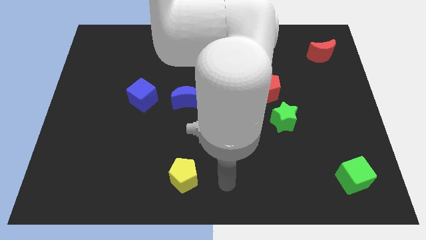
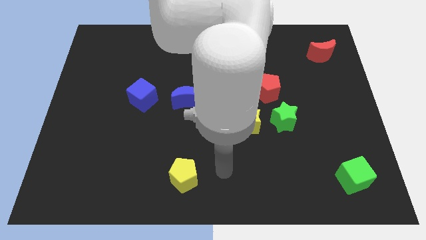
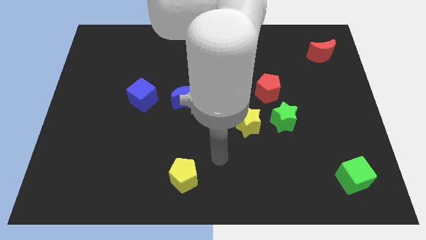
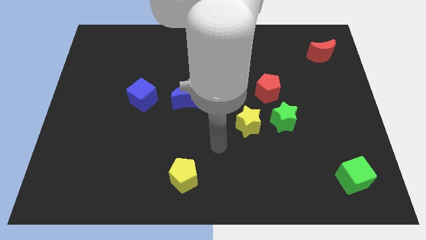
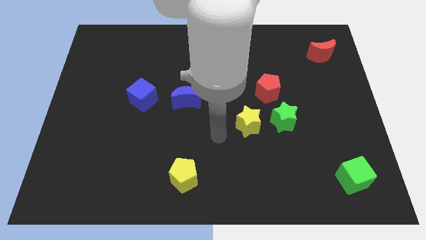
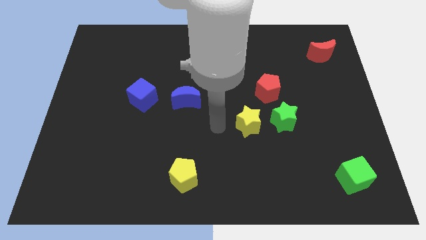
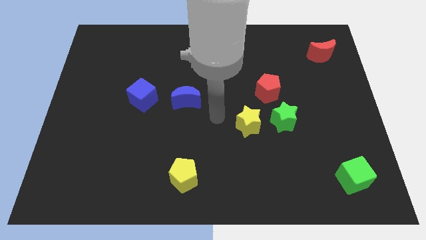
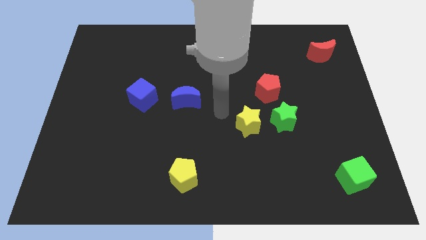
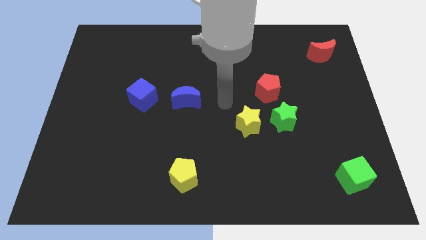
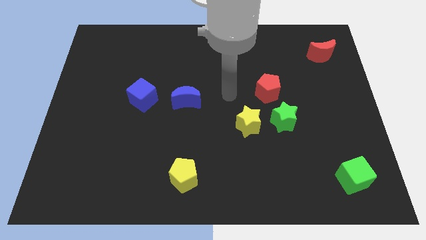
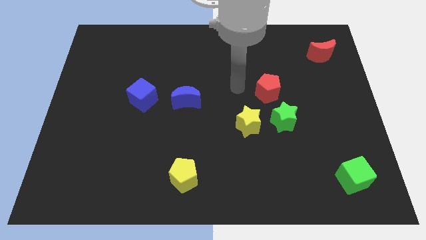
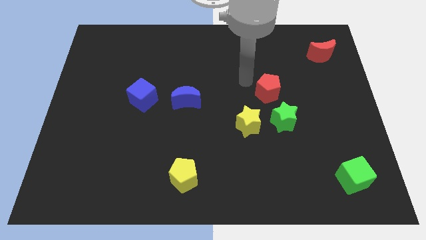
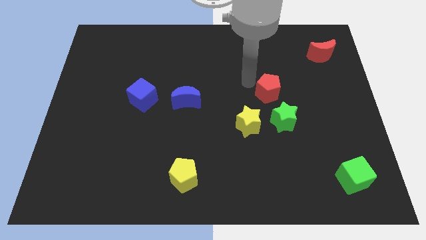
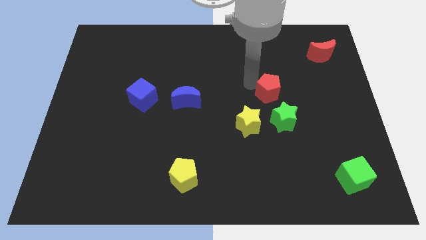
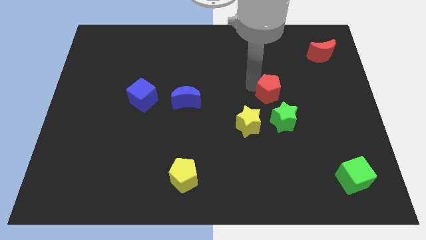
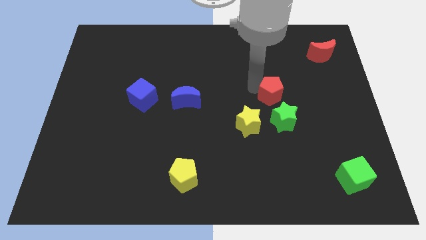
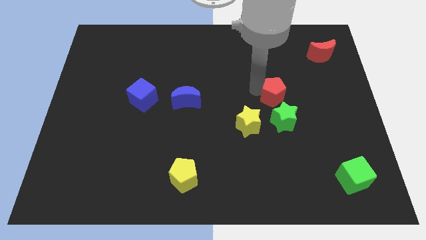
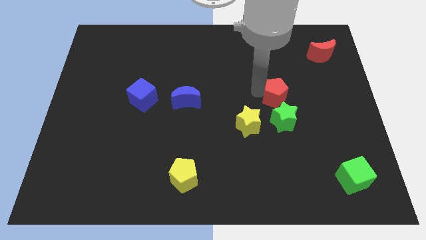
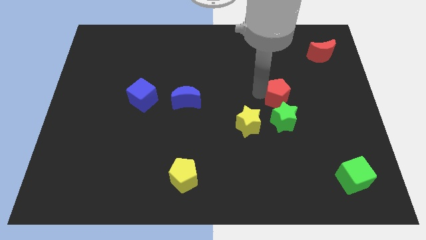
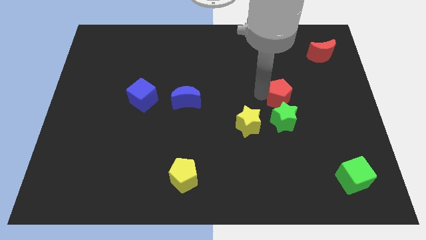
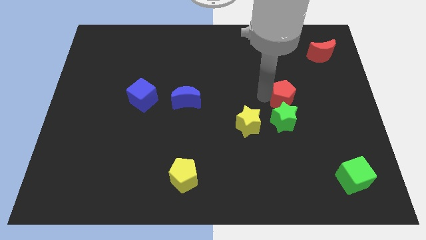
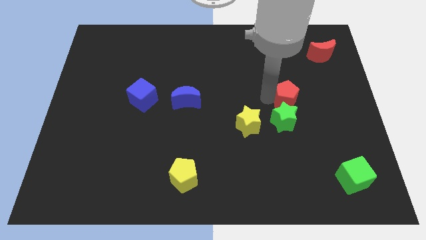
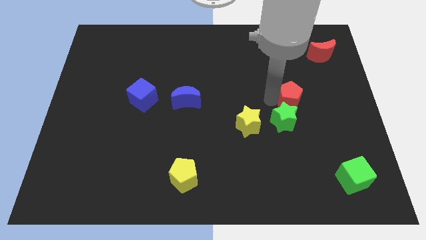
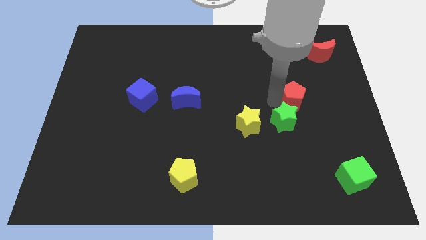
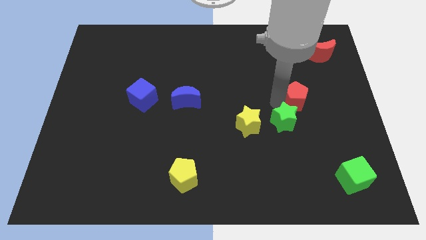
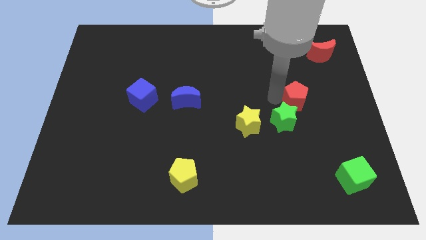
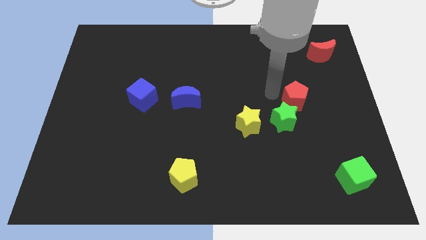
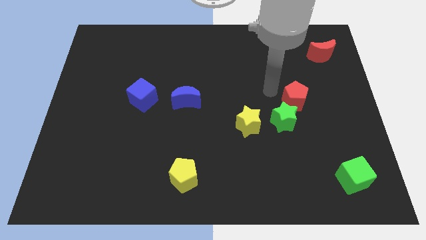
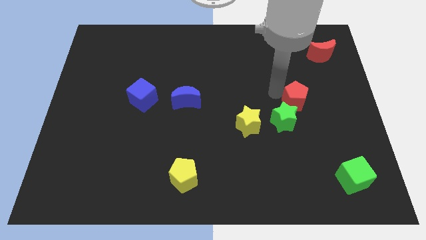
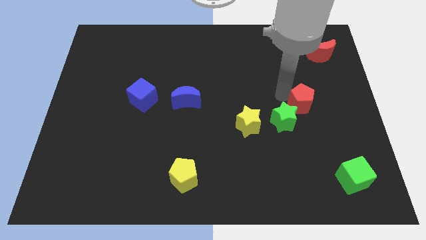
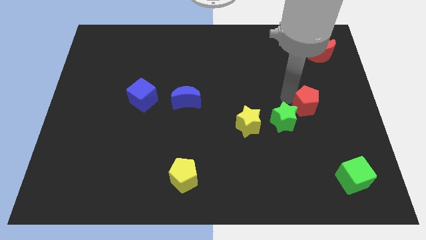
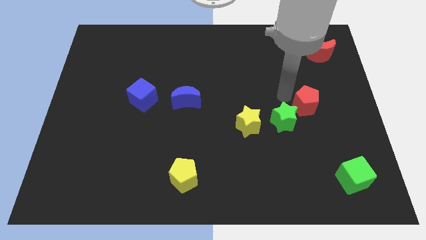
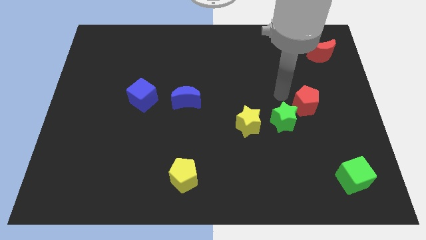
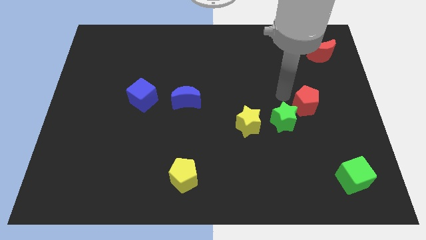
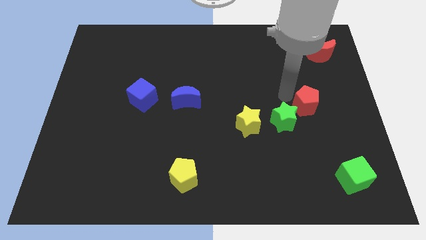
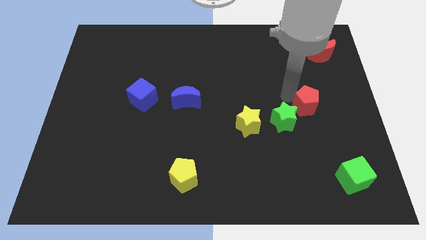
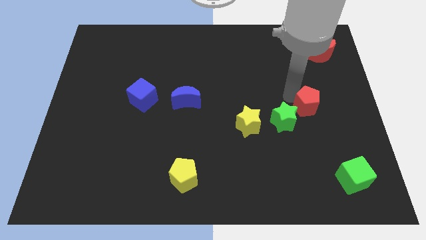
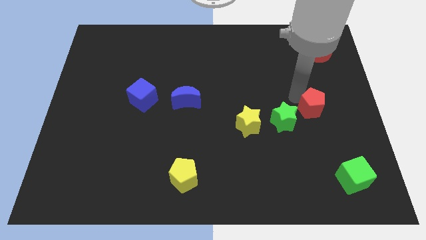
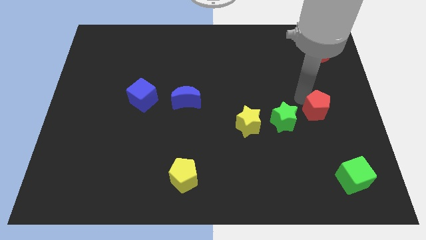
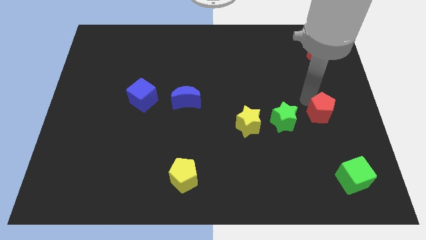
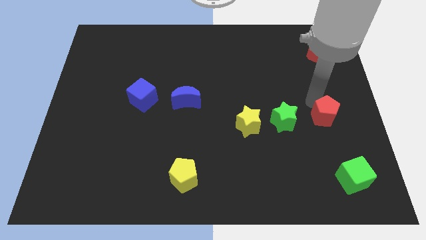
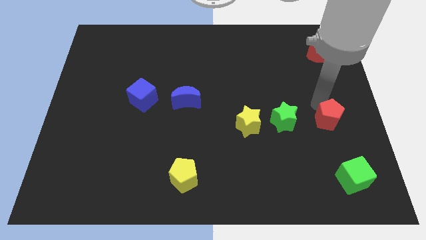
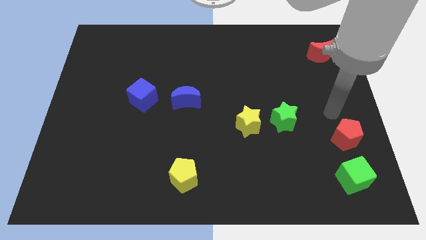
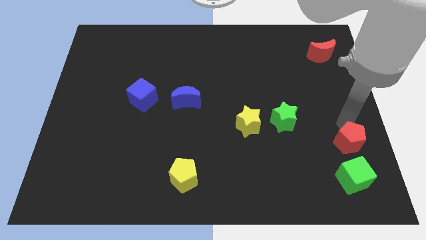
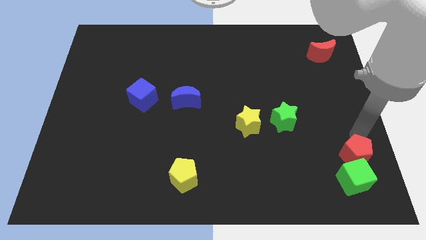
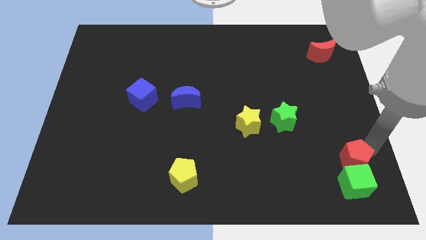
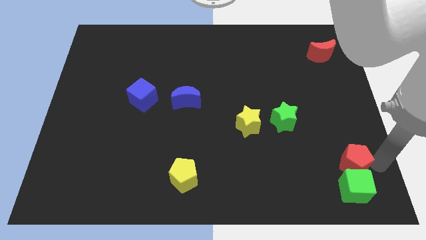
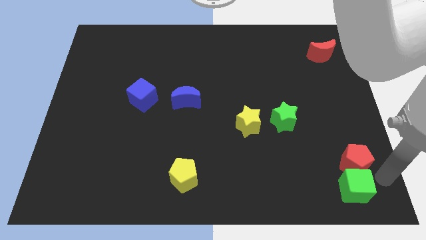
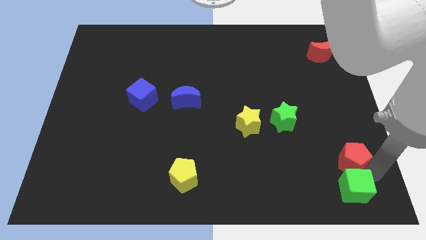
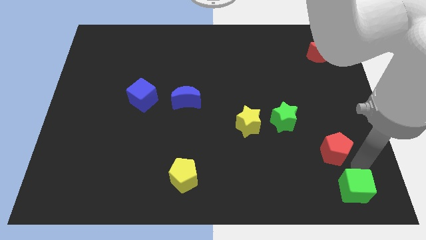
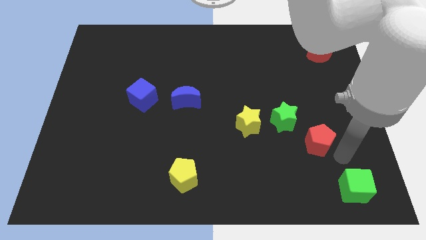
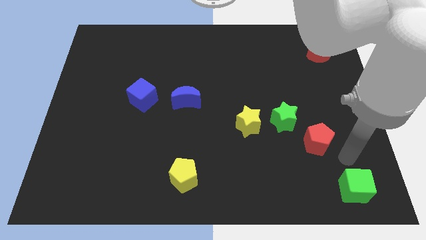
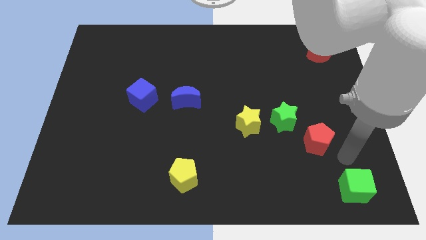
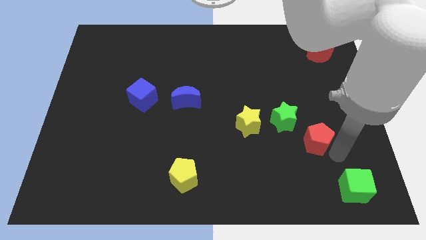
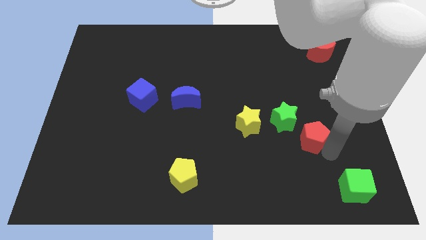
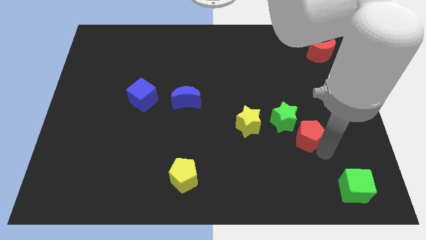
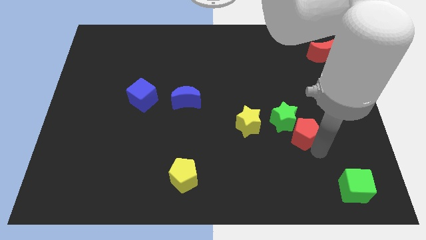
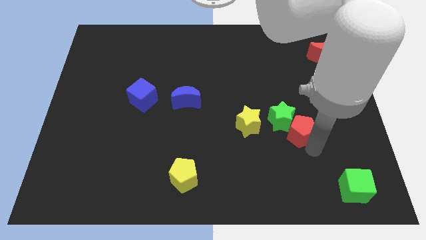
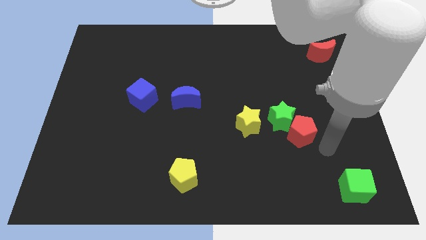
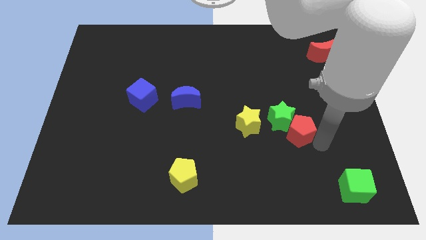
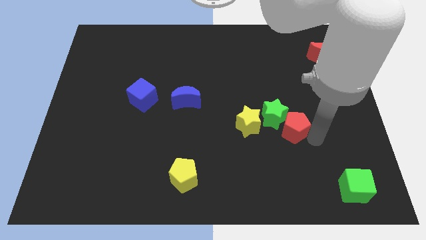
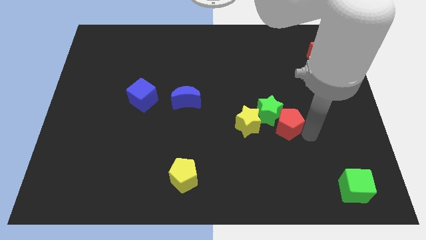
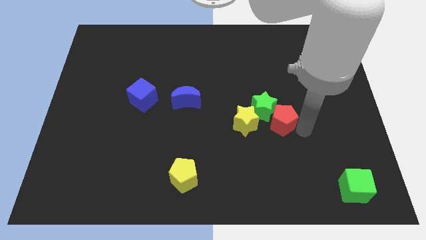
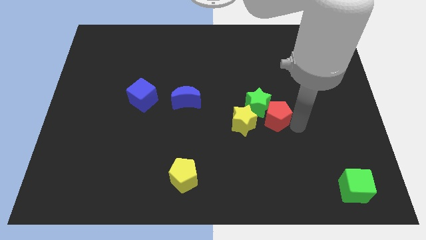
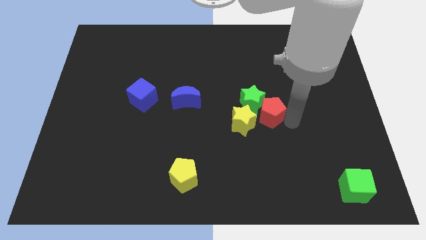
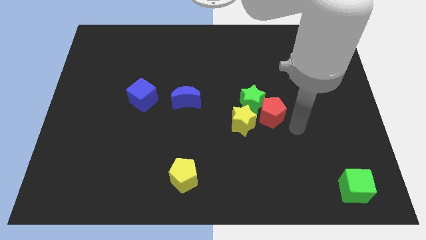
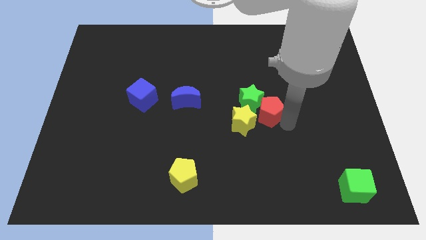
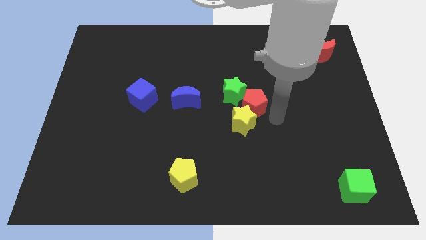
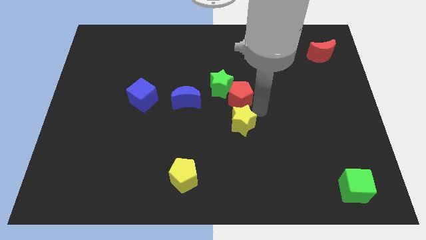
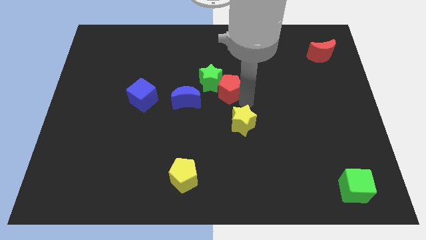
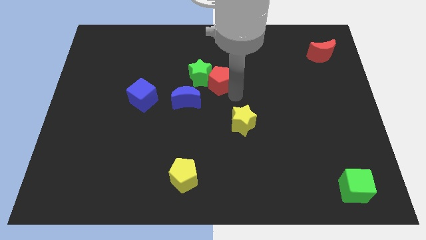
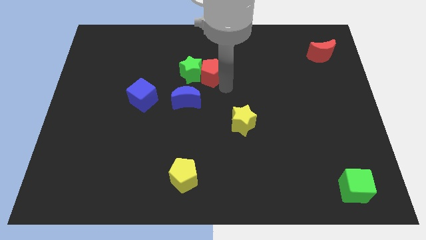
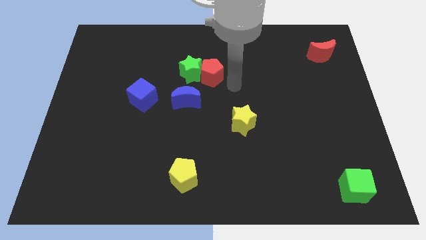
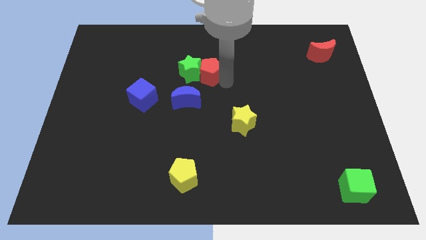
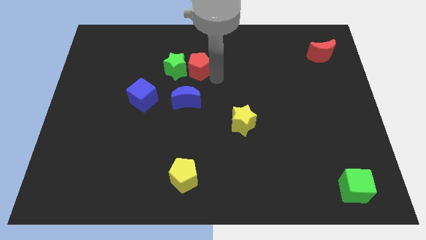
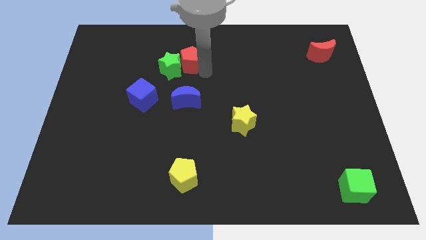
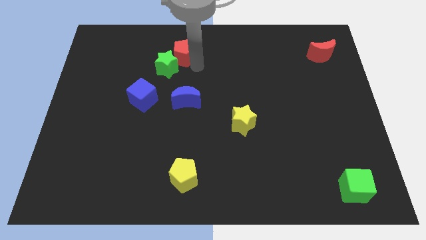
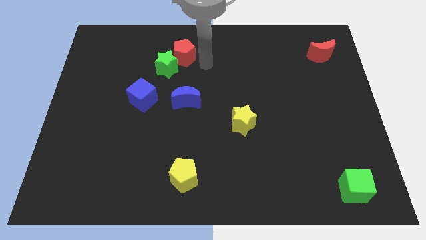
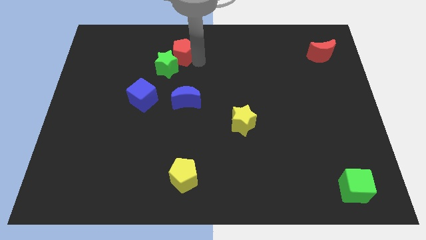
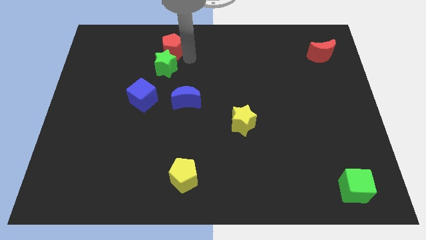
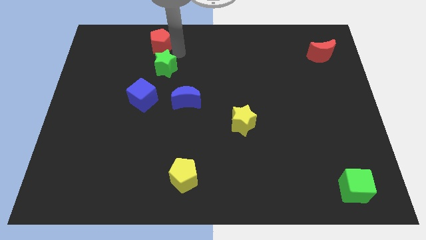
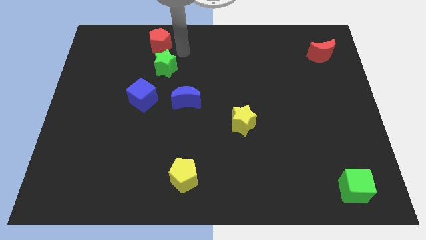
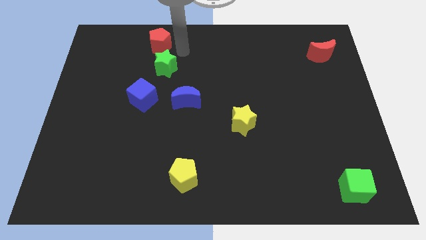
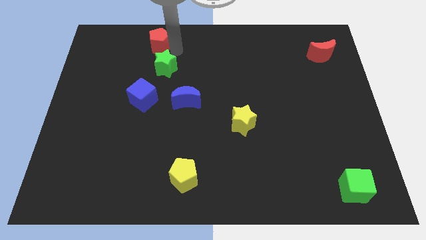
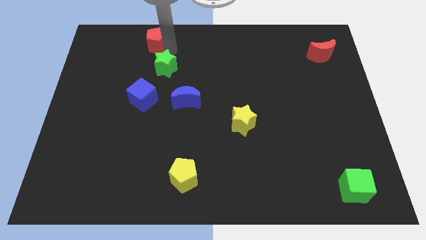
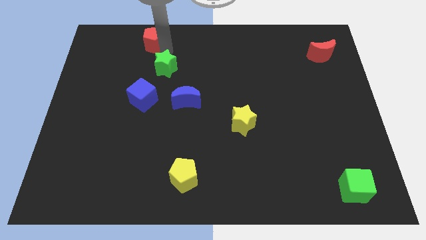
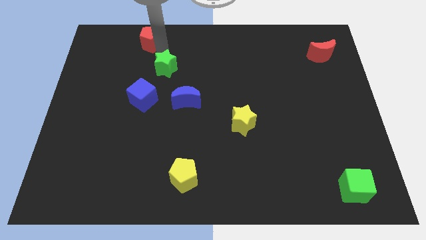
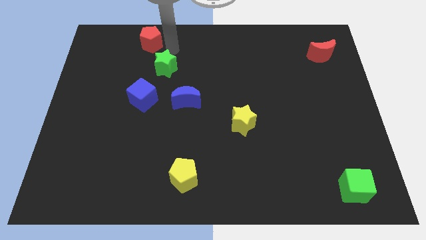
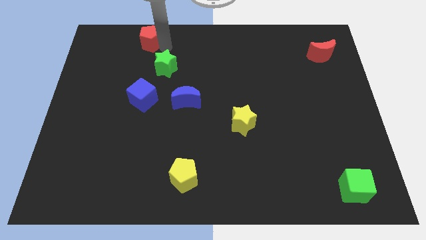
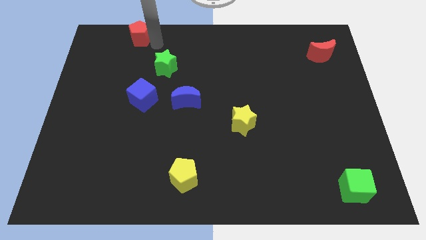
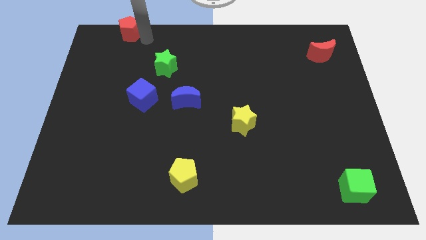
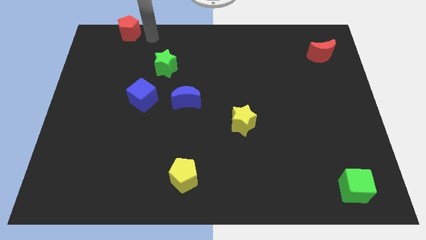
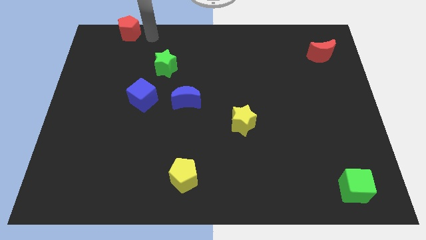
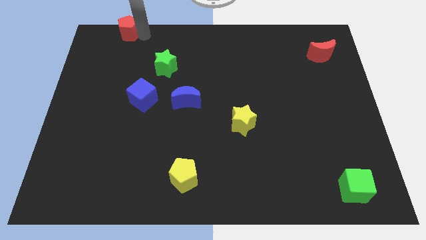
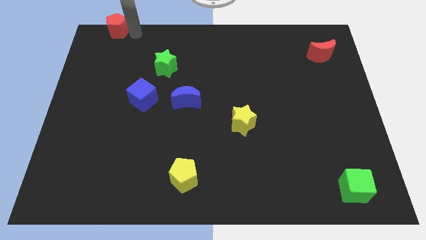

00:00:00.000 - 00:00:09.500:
move the red pentagon to the upper left corner
